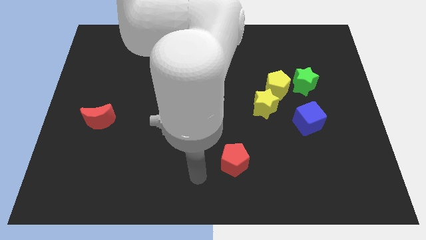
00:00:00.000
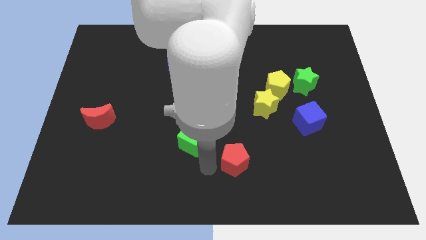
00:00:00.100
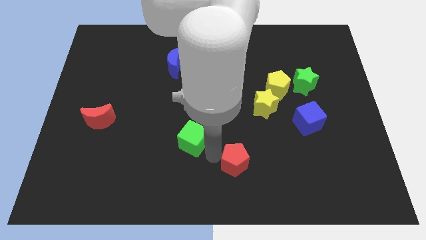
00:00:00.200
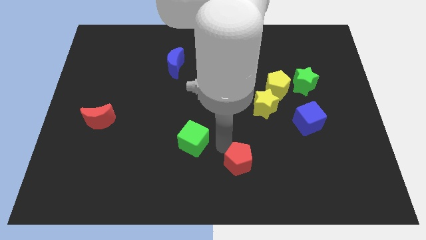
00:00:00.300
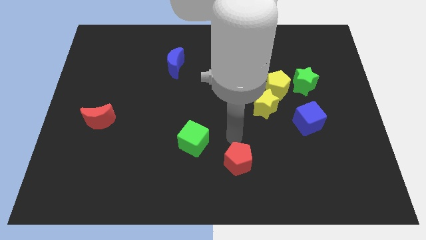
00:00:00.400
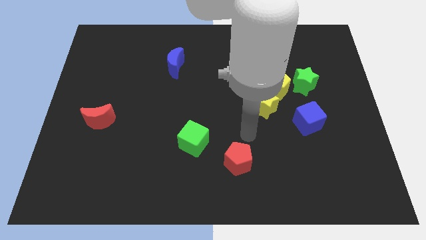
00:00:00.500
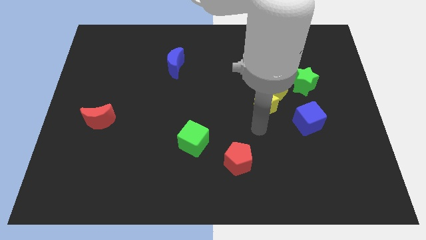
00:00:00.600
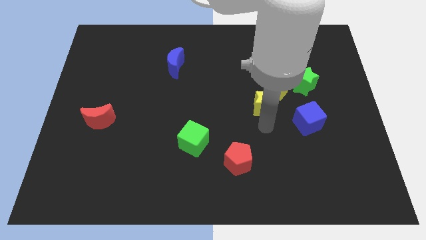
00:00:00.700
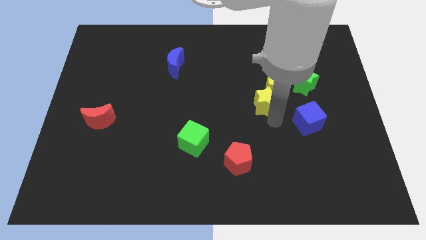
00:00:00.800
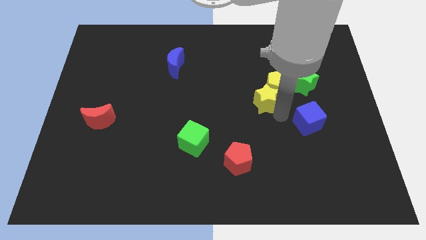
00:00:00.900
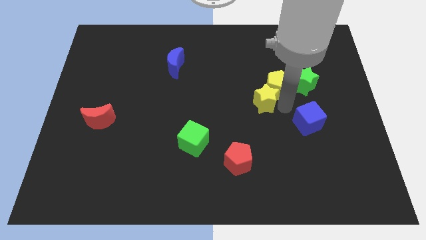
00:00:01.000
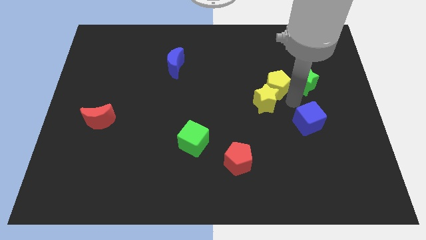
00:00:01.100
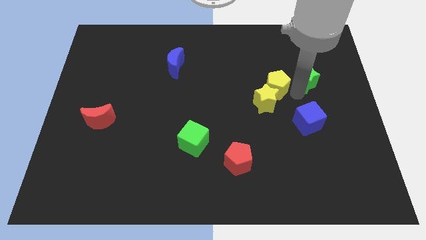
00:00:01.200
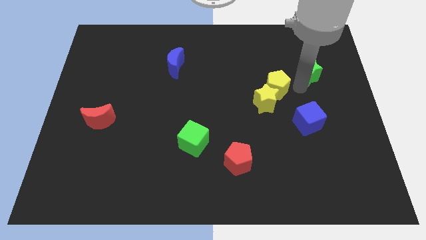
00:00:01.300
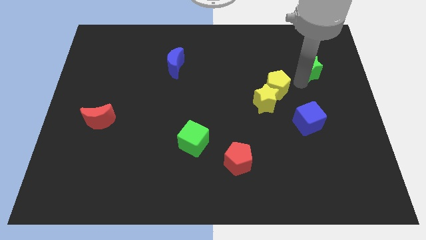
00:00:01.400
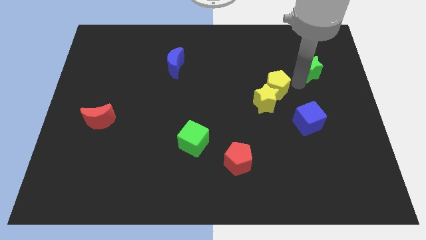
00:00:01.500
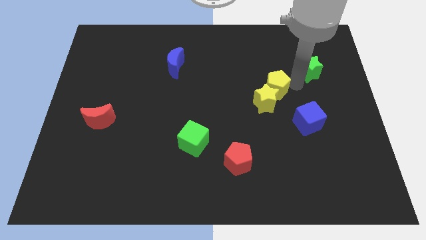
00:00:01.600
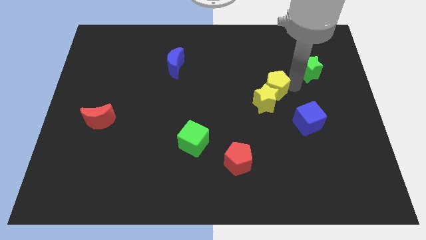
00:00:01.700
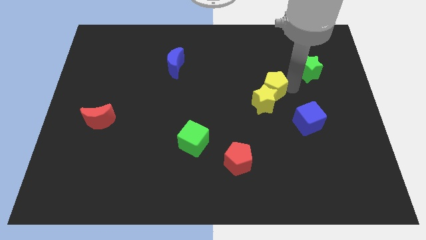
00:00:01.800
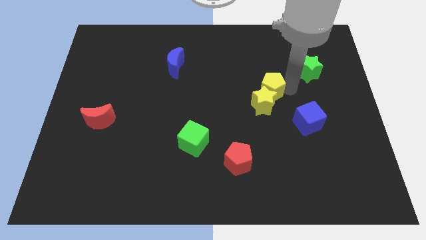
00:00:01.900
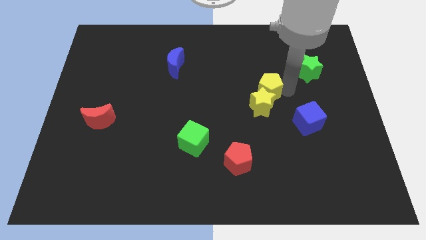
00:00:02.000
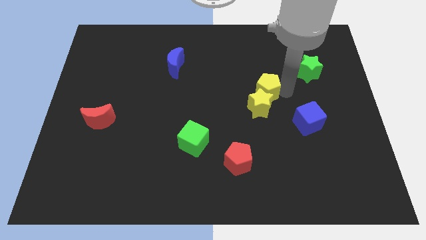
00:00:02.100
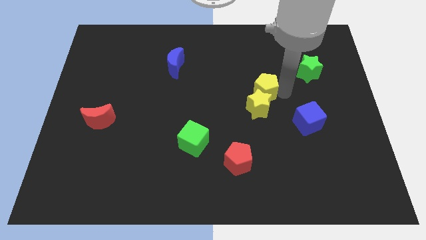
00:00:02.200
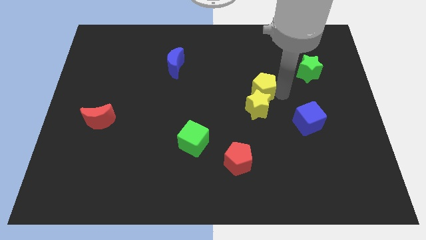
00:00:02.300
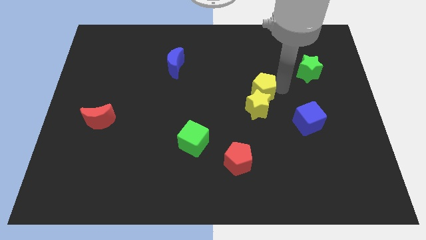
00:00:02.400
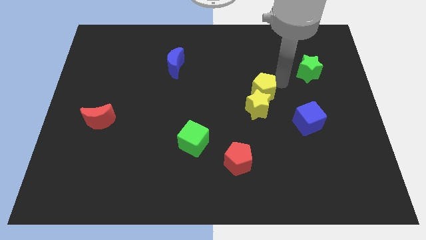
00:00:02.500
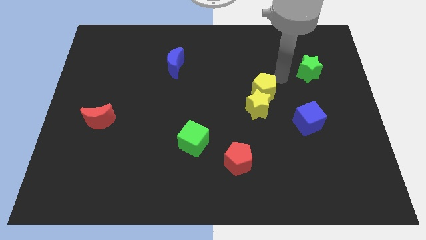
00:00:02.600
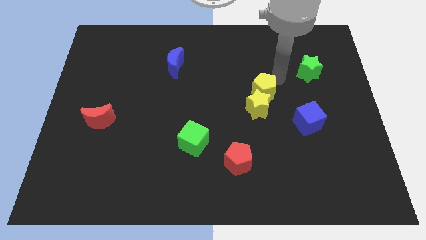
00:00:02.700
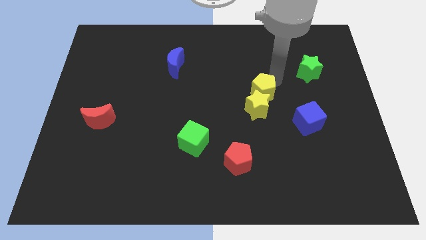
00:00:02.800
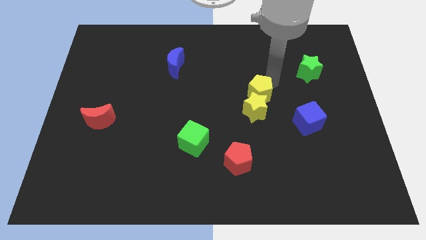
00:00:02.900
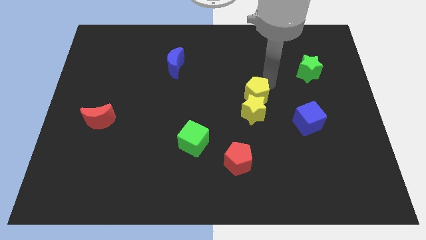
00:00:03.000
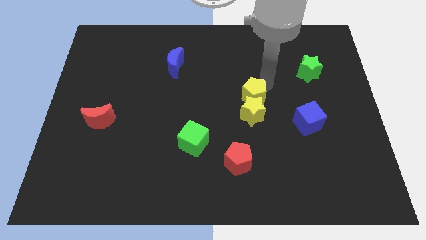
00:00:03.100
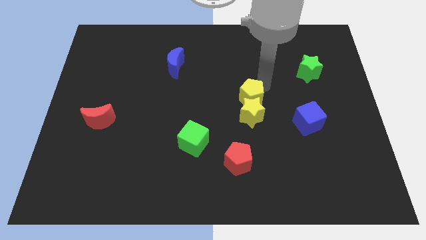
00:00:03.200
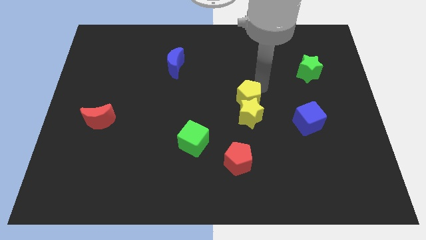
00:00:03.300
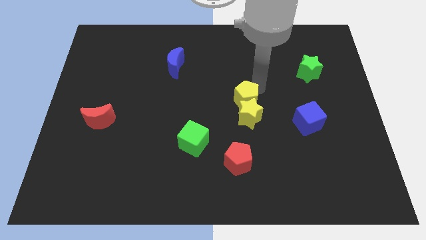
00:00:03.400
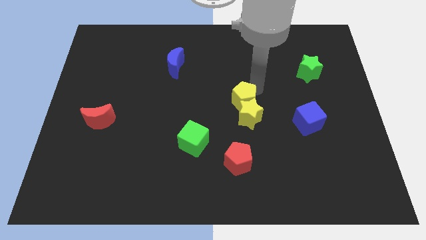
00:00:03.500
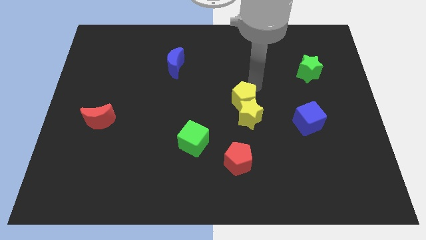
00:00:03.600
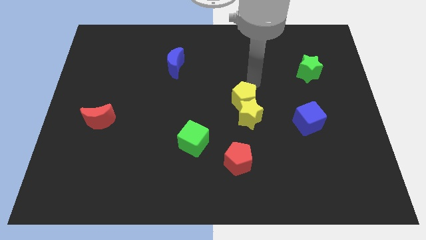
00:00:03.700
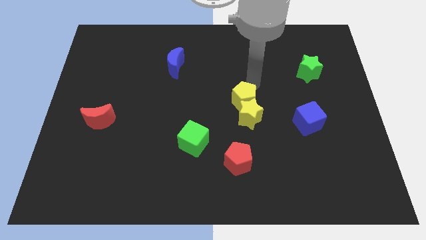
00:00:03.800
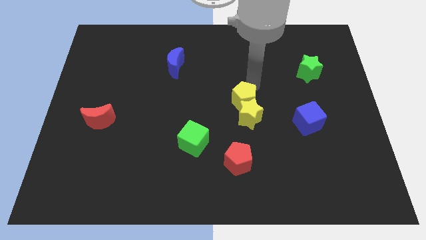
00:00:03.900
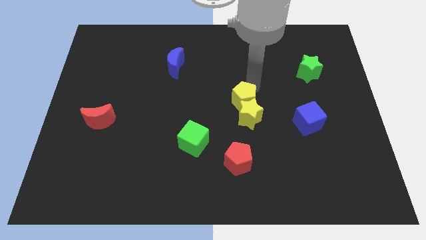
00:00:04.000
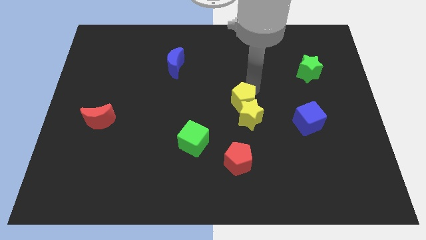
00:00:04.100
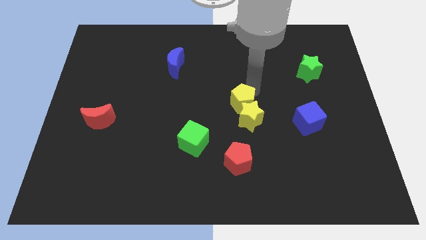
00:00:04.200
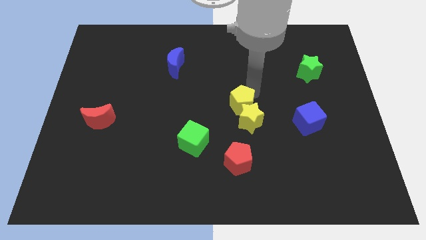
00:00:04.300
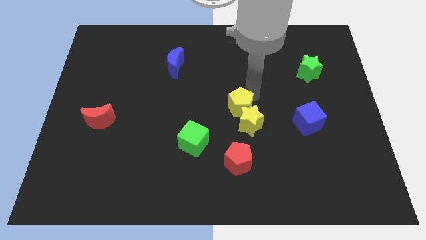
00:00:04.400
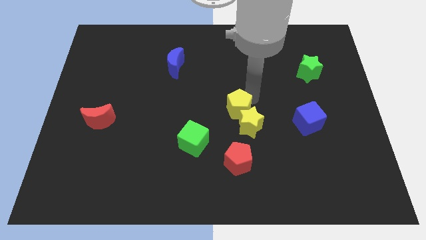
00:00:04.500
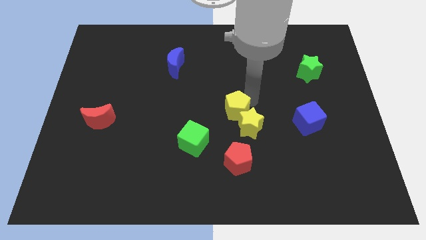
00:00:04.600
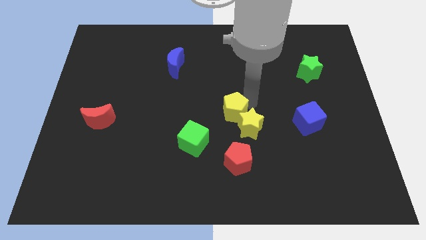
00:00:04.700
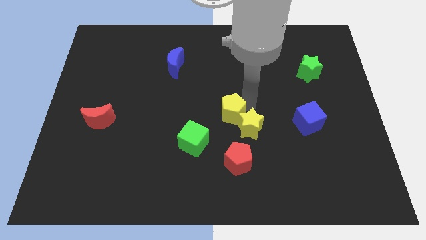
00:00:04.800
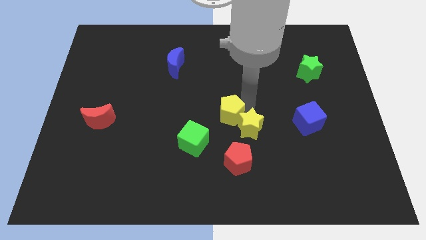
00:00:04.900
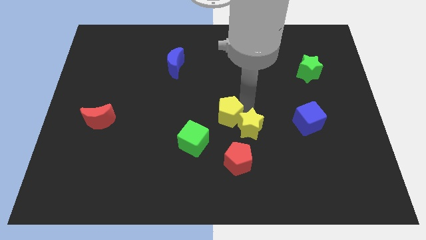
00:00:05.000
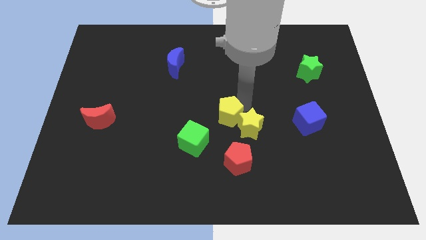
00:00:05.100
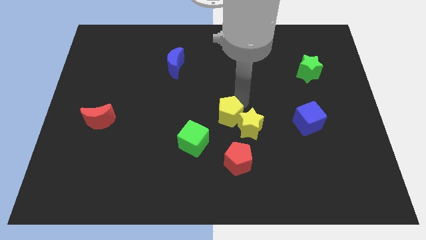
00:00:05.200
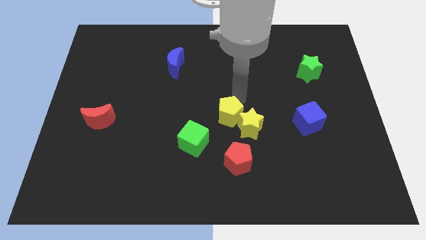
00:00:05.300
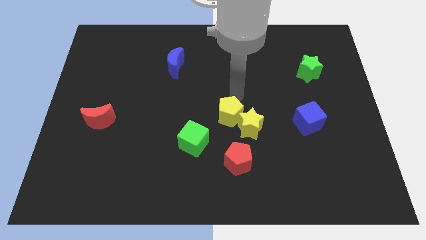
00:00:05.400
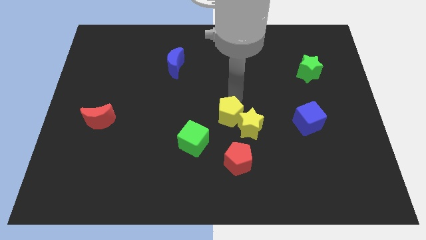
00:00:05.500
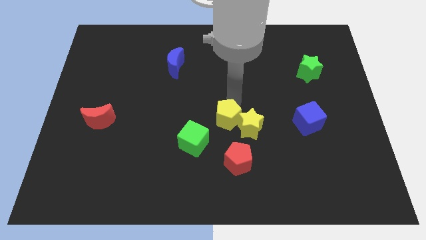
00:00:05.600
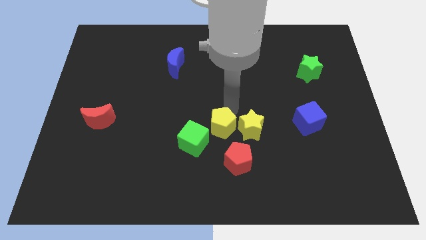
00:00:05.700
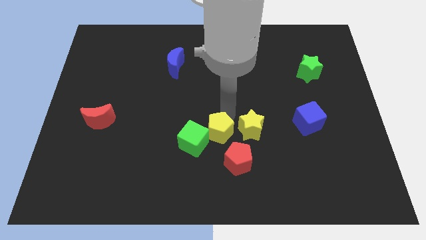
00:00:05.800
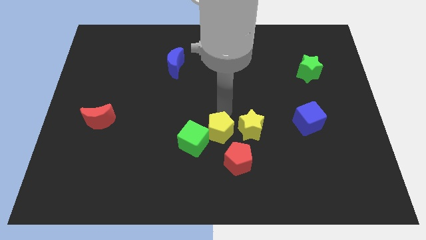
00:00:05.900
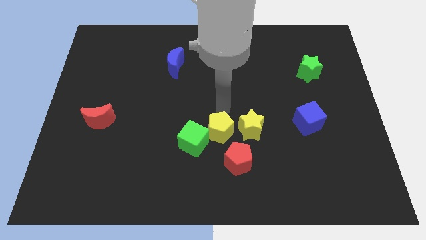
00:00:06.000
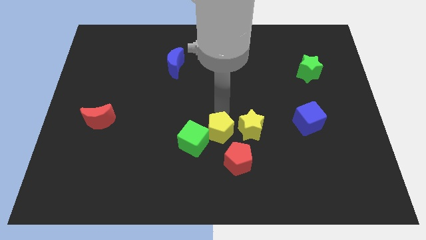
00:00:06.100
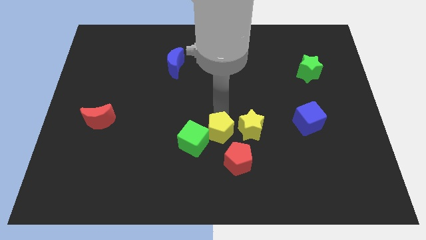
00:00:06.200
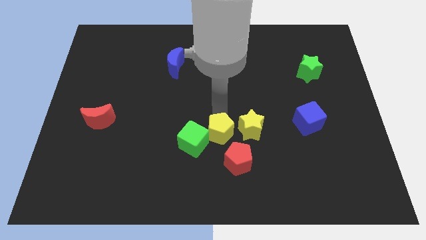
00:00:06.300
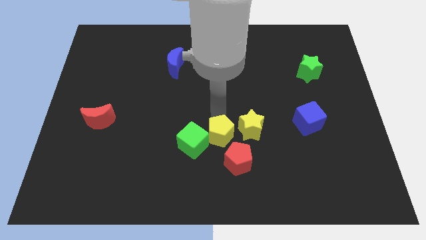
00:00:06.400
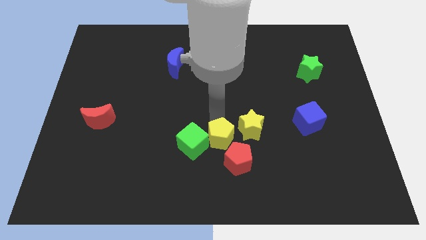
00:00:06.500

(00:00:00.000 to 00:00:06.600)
slide the yellow pentagon diagonally downwards and left

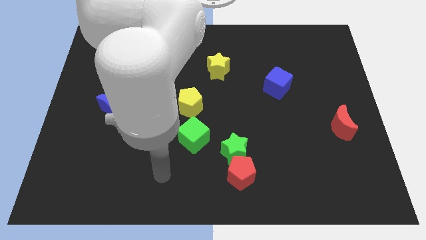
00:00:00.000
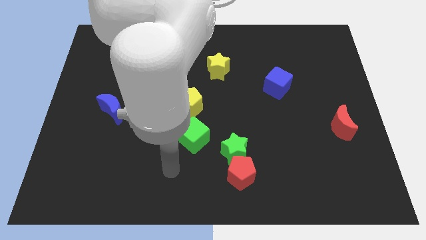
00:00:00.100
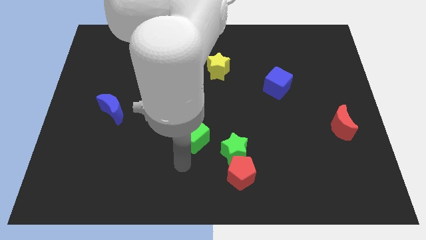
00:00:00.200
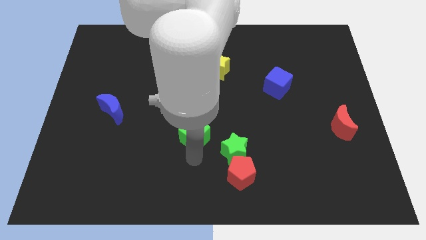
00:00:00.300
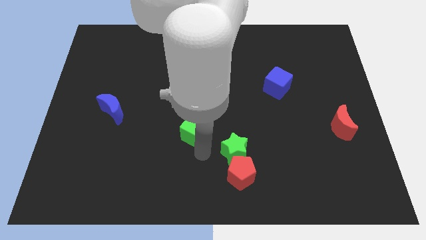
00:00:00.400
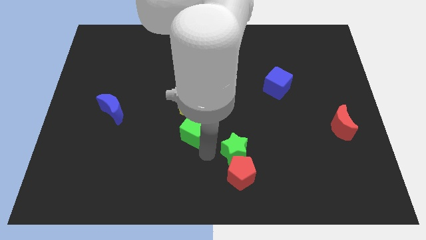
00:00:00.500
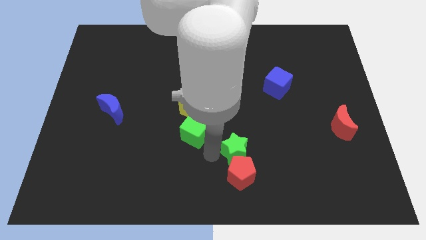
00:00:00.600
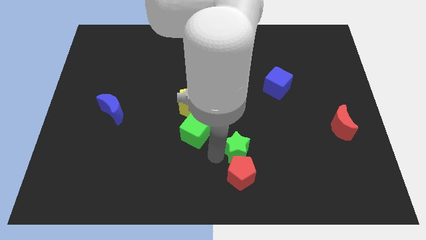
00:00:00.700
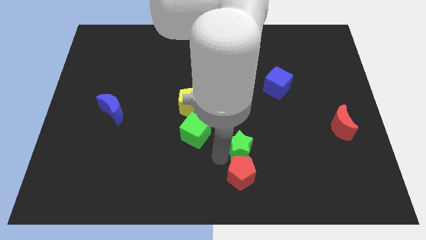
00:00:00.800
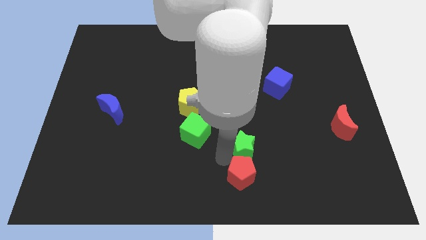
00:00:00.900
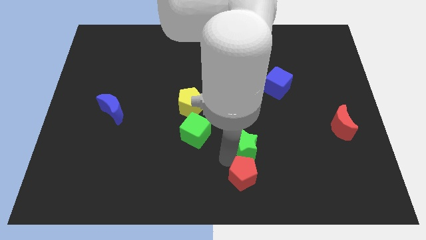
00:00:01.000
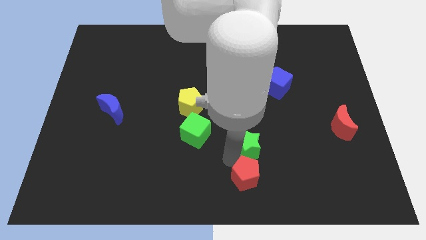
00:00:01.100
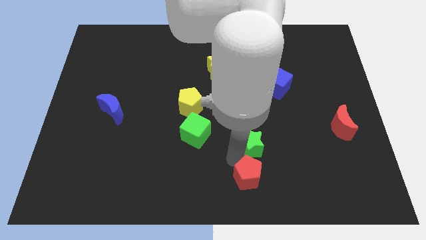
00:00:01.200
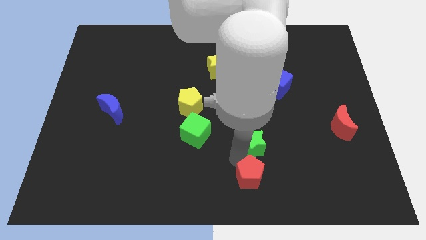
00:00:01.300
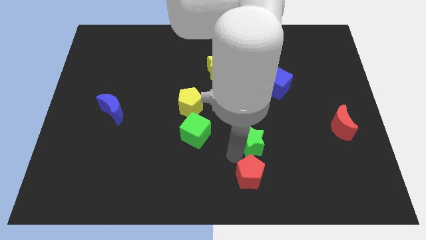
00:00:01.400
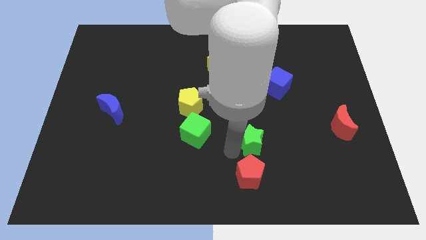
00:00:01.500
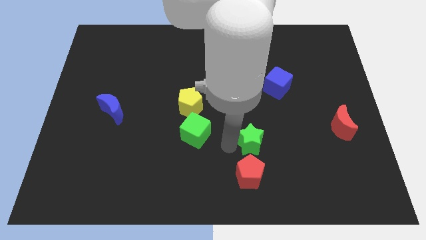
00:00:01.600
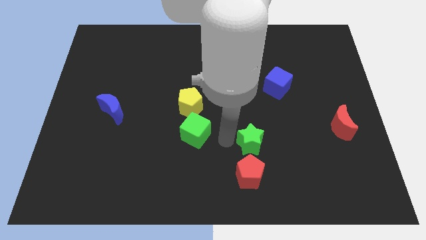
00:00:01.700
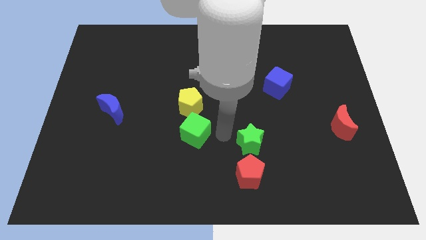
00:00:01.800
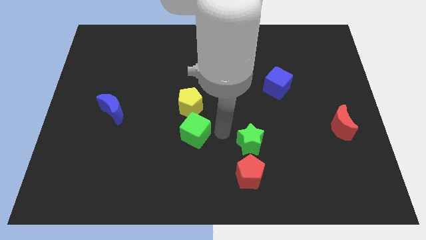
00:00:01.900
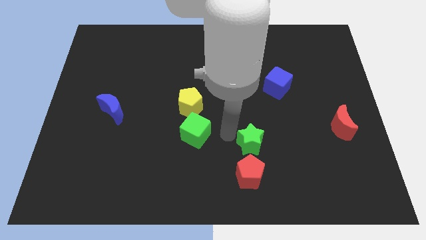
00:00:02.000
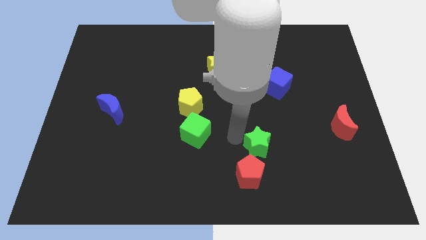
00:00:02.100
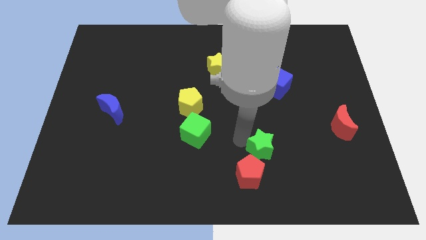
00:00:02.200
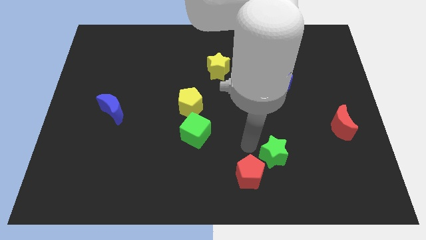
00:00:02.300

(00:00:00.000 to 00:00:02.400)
move the green star right slightly
